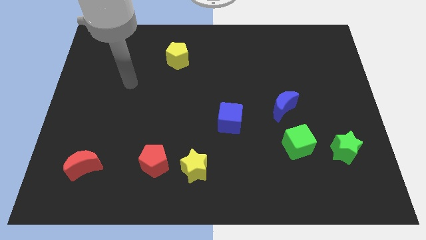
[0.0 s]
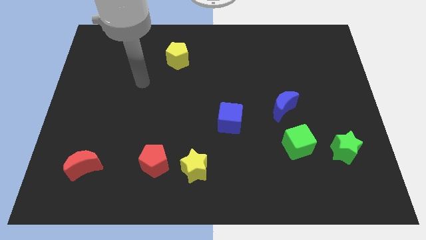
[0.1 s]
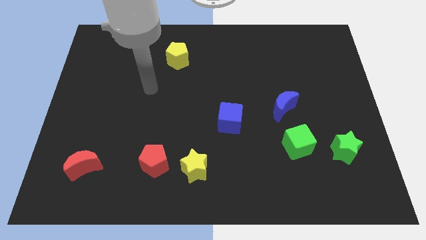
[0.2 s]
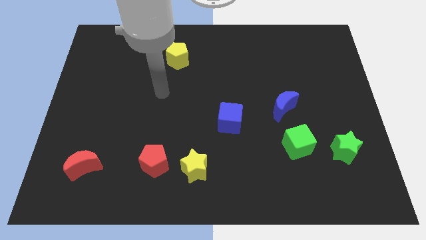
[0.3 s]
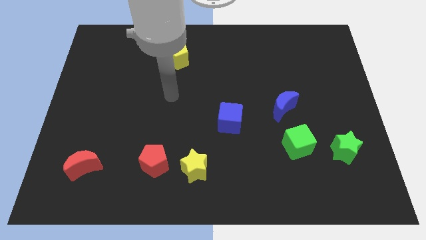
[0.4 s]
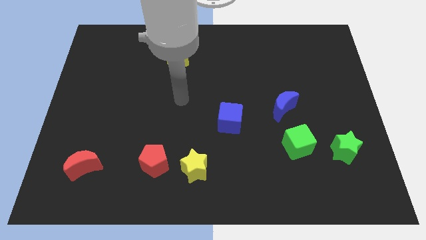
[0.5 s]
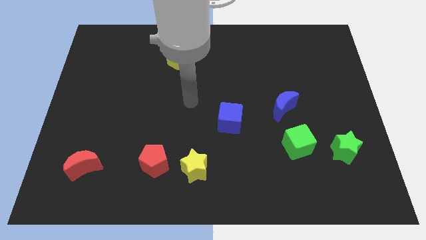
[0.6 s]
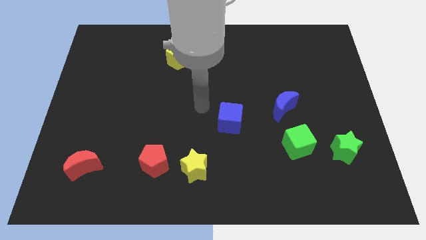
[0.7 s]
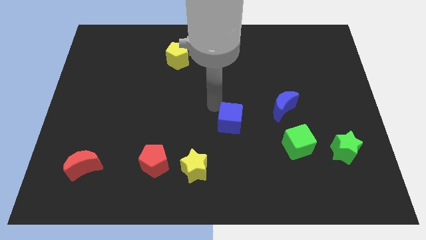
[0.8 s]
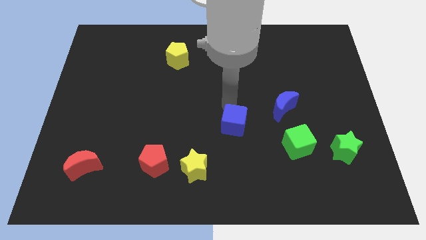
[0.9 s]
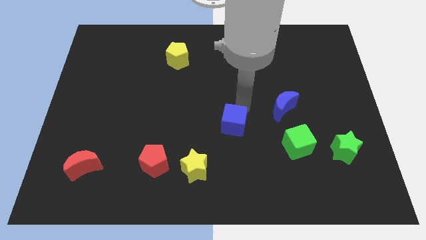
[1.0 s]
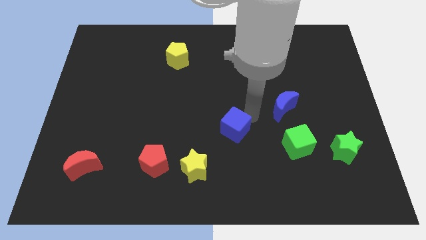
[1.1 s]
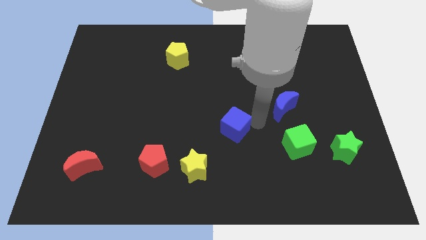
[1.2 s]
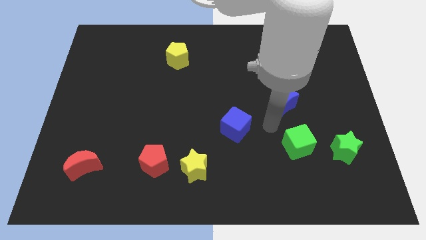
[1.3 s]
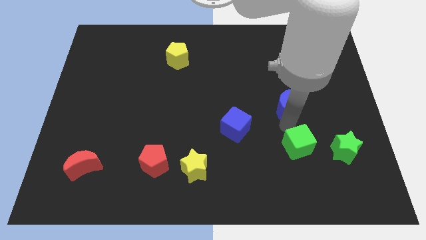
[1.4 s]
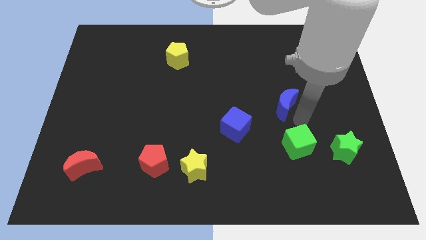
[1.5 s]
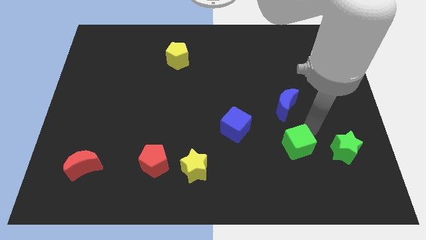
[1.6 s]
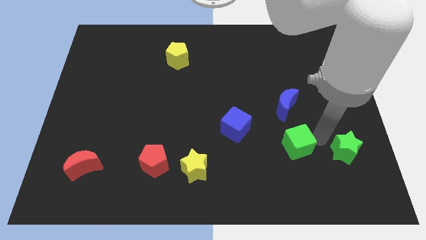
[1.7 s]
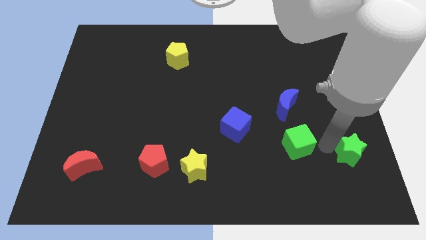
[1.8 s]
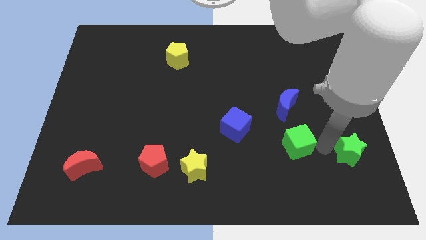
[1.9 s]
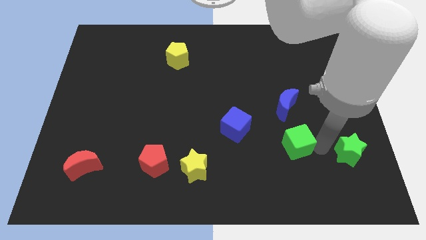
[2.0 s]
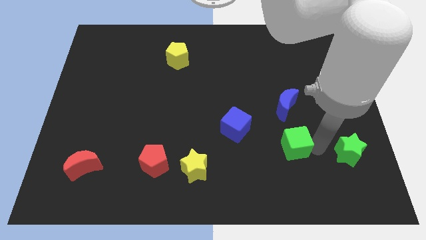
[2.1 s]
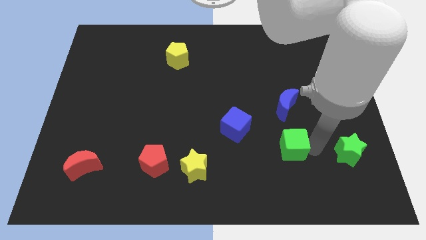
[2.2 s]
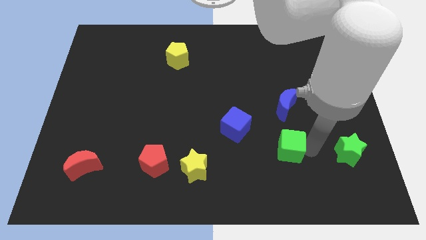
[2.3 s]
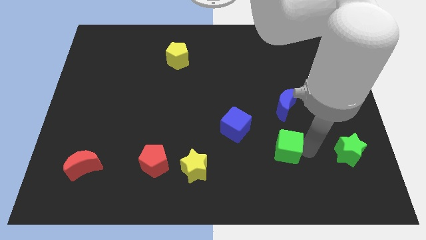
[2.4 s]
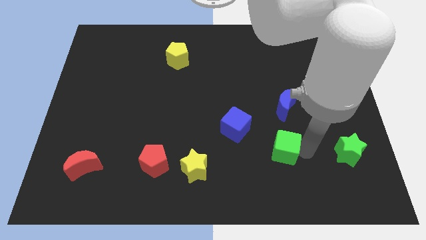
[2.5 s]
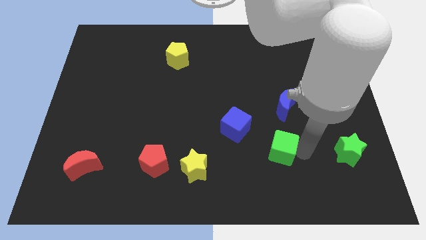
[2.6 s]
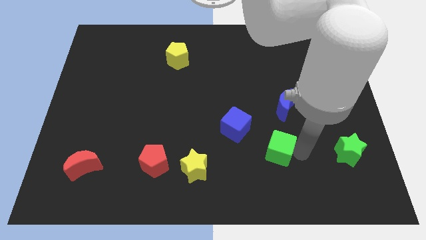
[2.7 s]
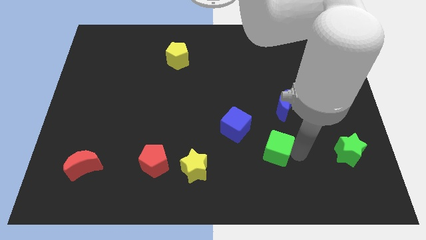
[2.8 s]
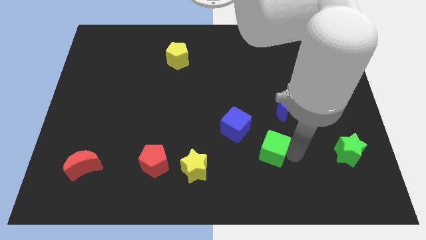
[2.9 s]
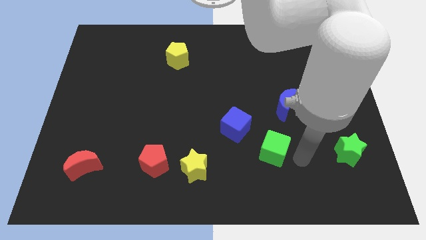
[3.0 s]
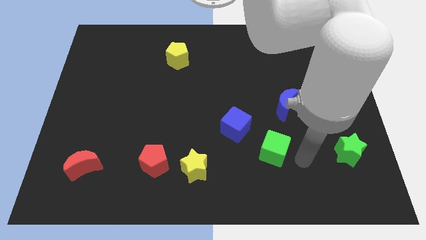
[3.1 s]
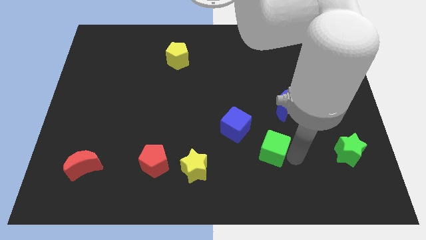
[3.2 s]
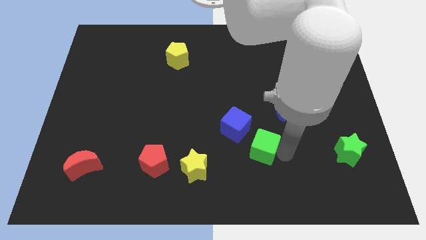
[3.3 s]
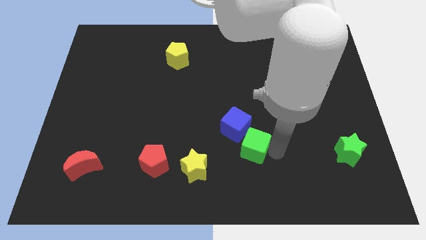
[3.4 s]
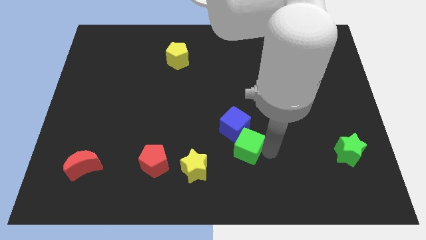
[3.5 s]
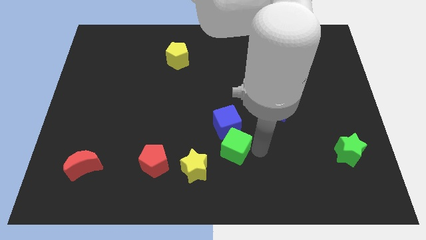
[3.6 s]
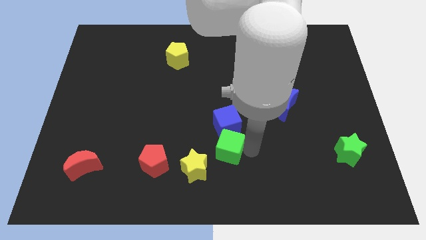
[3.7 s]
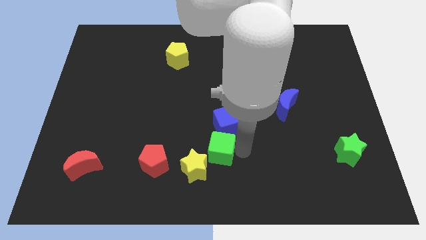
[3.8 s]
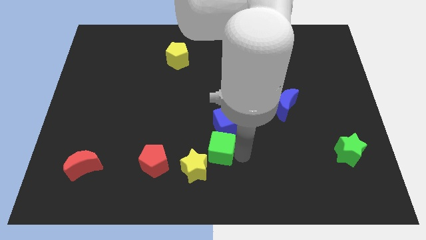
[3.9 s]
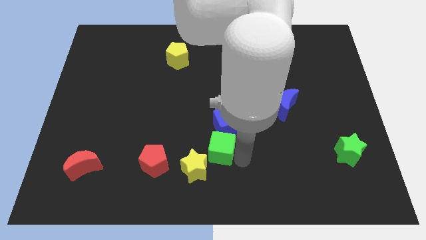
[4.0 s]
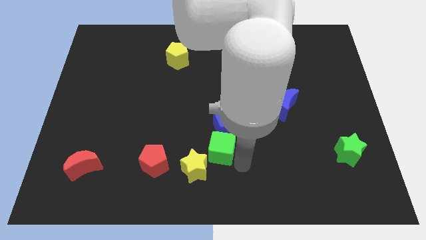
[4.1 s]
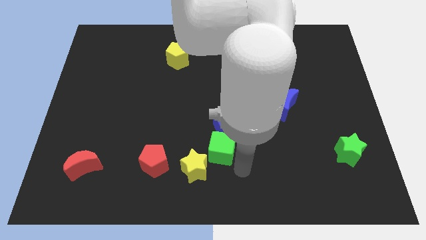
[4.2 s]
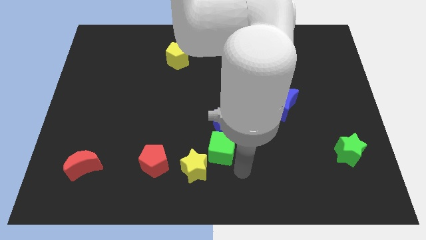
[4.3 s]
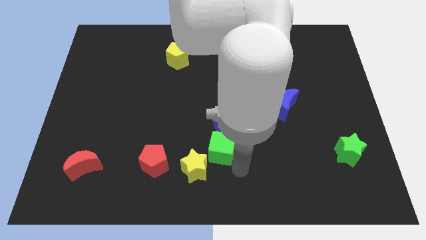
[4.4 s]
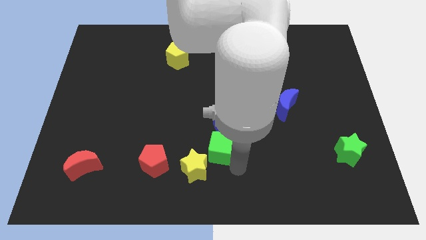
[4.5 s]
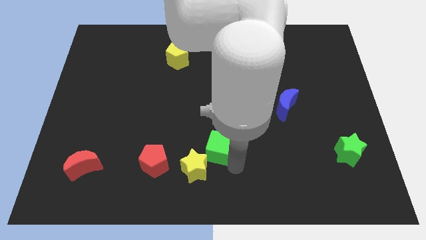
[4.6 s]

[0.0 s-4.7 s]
slide the green cube to the top side of the yellow star

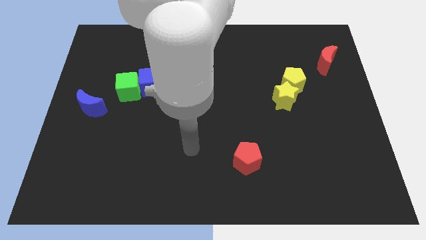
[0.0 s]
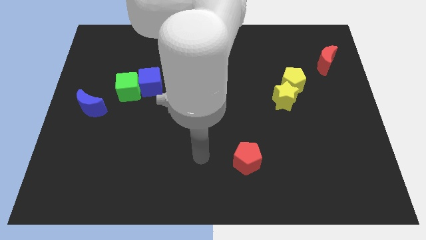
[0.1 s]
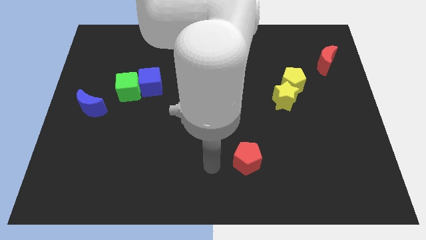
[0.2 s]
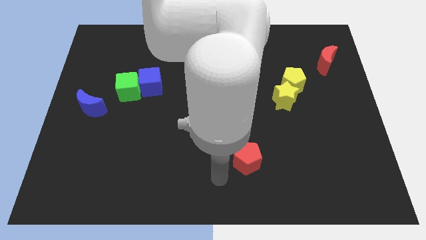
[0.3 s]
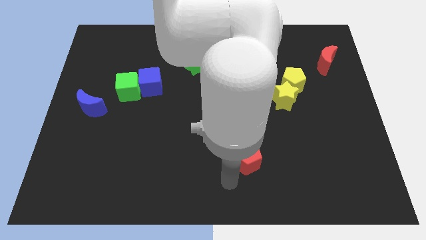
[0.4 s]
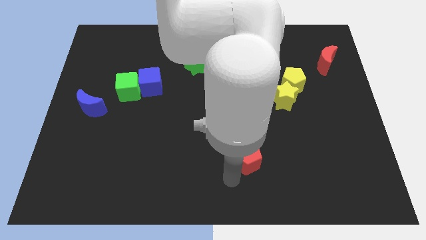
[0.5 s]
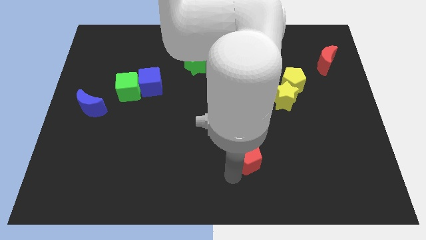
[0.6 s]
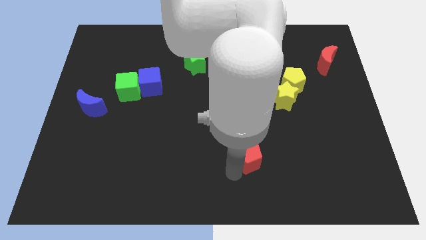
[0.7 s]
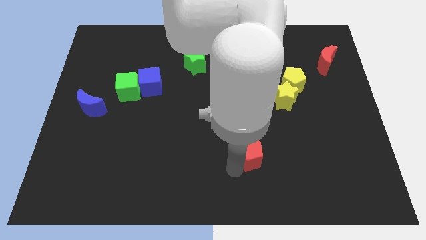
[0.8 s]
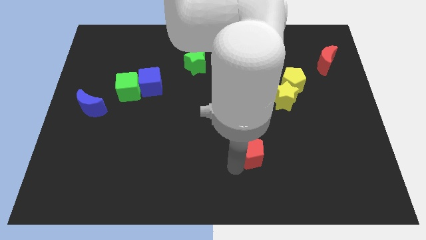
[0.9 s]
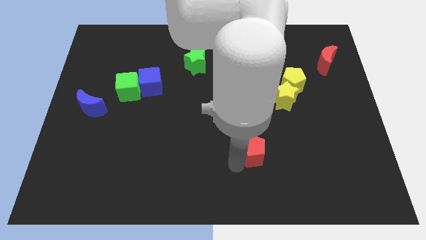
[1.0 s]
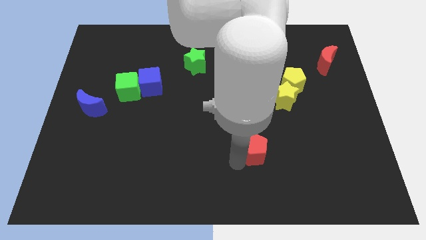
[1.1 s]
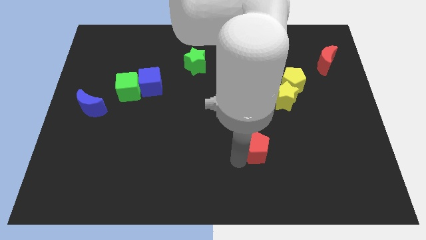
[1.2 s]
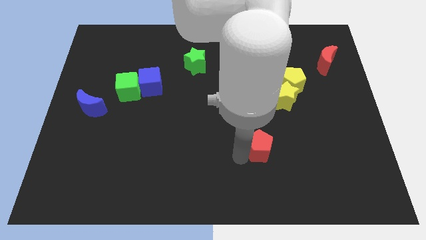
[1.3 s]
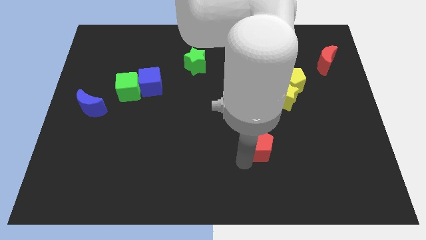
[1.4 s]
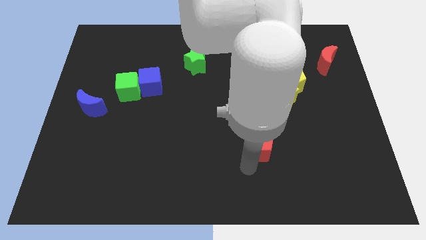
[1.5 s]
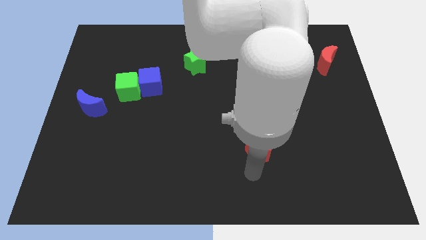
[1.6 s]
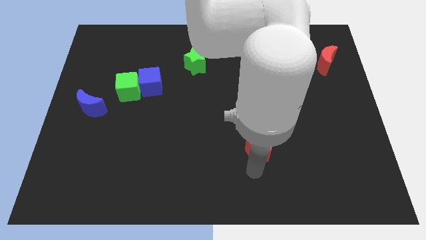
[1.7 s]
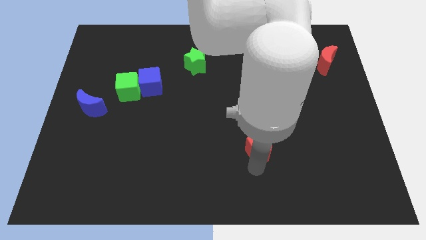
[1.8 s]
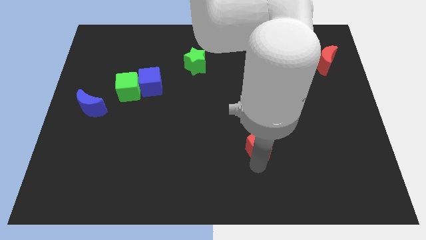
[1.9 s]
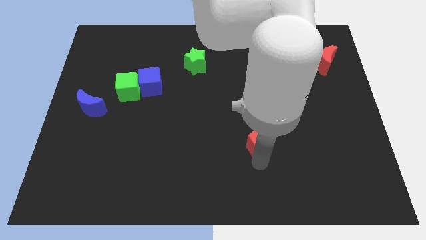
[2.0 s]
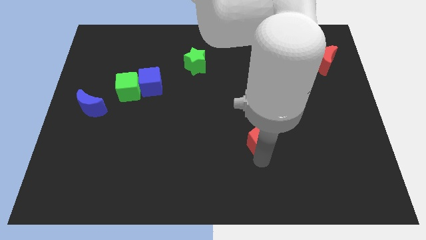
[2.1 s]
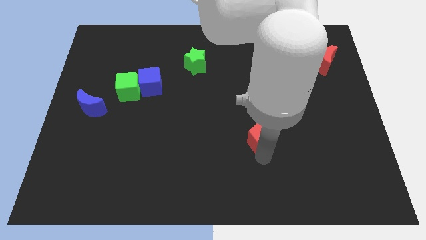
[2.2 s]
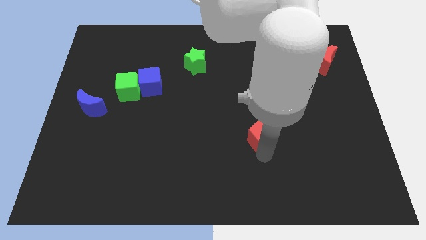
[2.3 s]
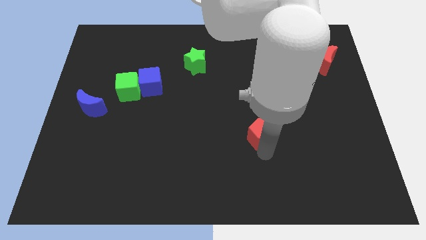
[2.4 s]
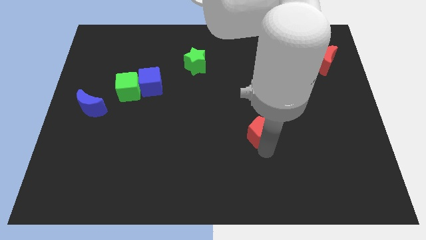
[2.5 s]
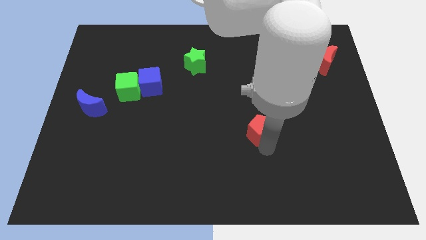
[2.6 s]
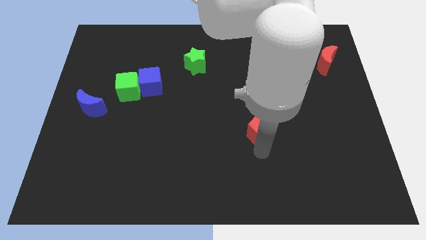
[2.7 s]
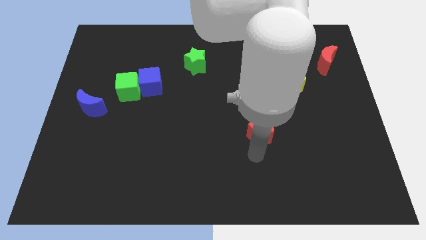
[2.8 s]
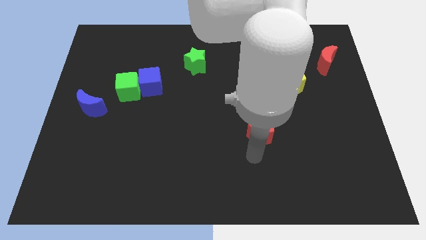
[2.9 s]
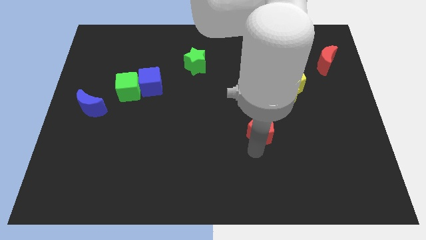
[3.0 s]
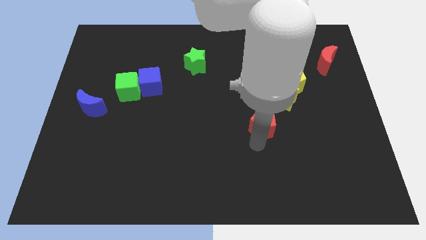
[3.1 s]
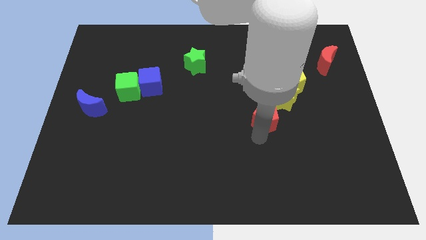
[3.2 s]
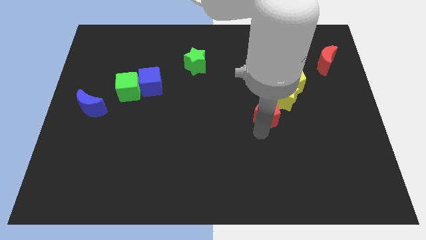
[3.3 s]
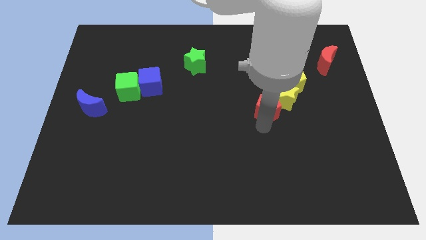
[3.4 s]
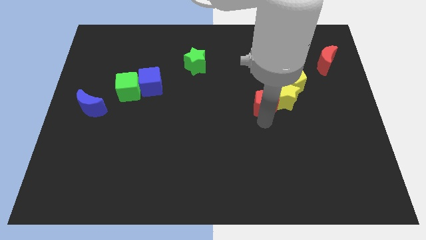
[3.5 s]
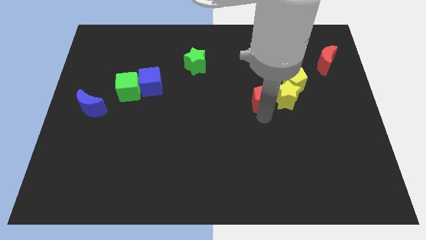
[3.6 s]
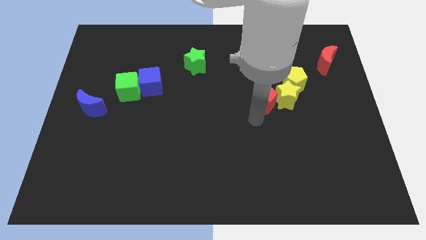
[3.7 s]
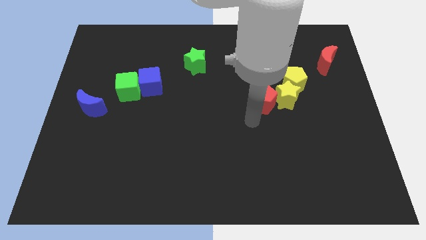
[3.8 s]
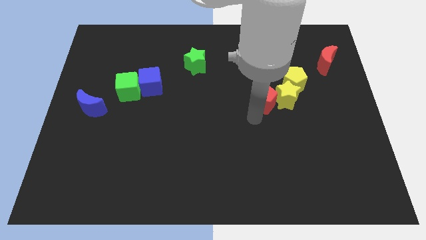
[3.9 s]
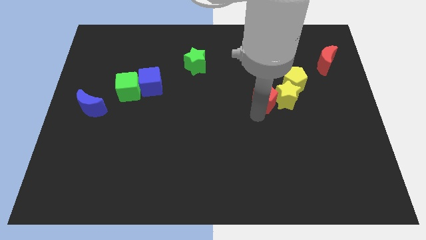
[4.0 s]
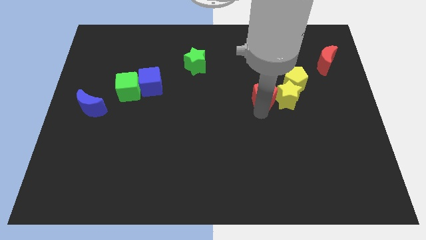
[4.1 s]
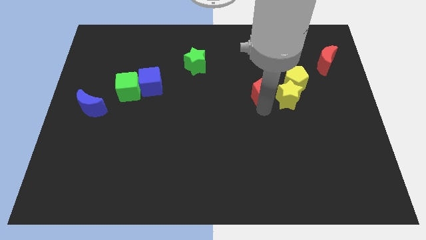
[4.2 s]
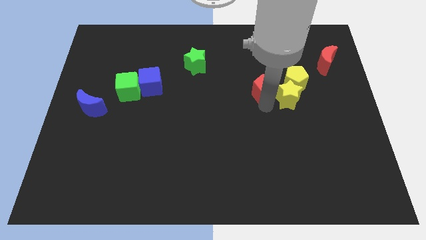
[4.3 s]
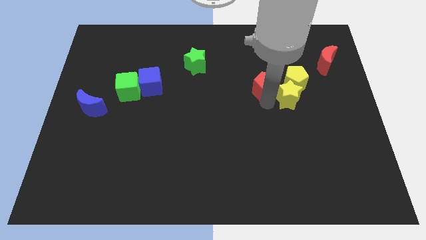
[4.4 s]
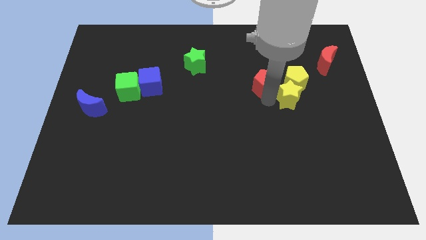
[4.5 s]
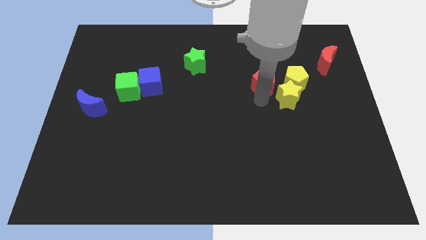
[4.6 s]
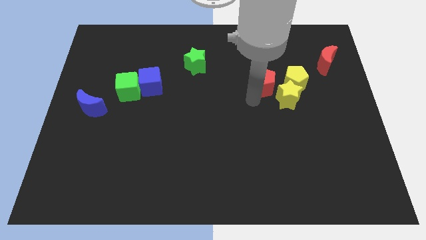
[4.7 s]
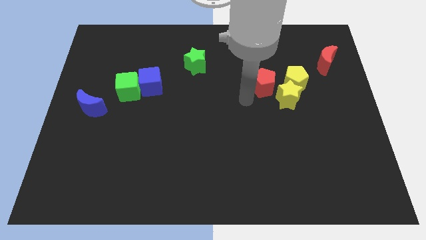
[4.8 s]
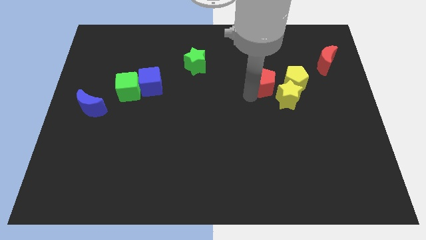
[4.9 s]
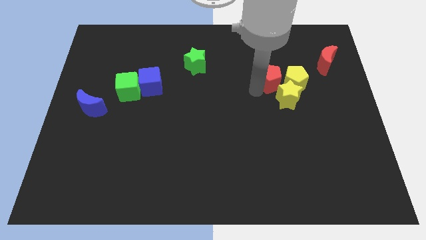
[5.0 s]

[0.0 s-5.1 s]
put the red pentagon above the yellow star
